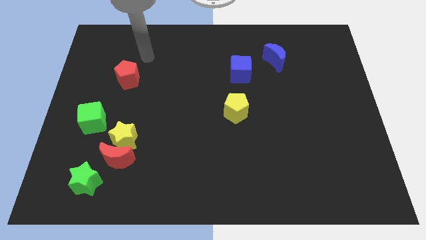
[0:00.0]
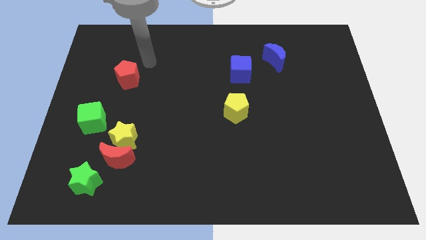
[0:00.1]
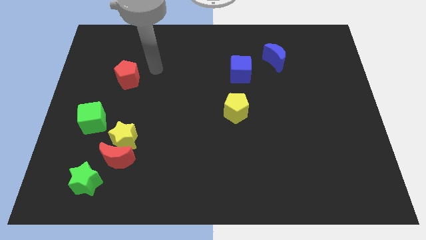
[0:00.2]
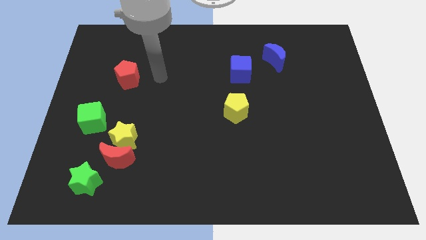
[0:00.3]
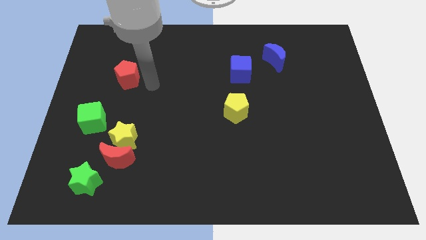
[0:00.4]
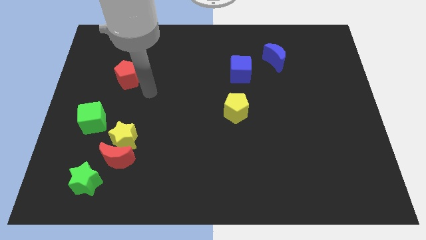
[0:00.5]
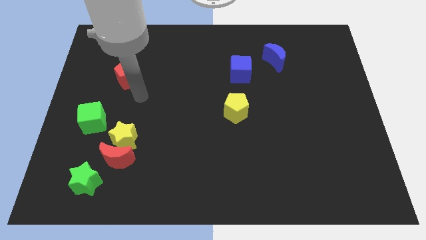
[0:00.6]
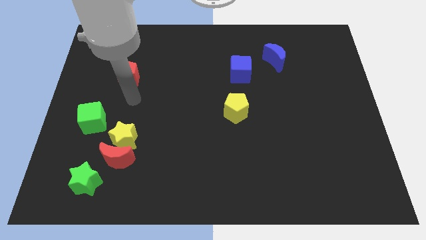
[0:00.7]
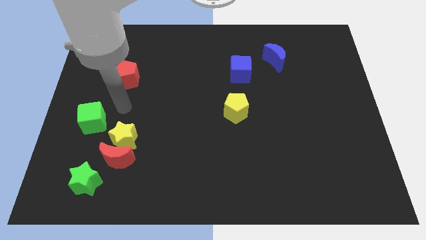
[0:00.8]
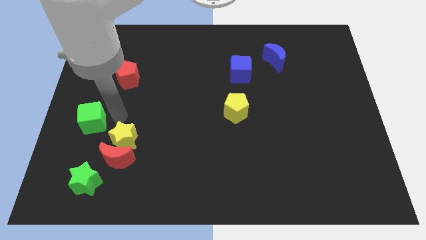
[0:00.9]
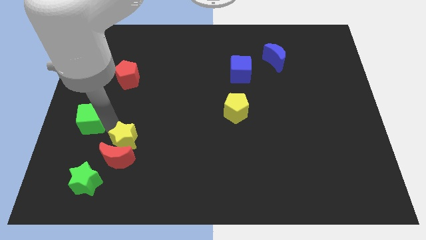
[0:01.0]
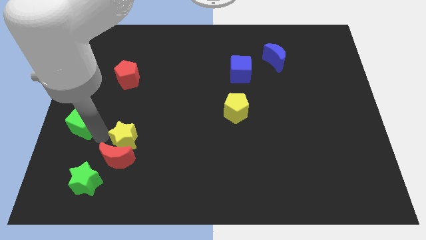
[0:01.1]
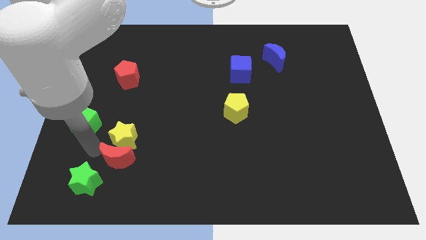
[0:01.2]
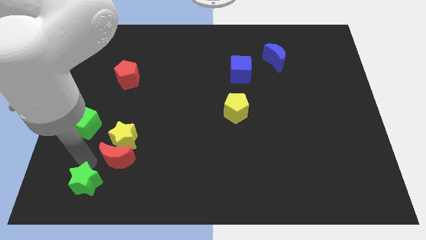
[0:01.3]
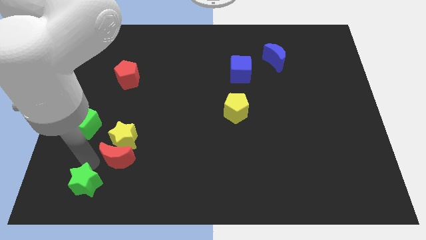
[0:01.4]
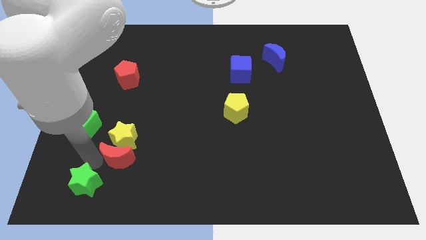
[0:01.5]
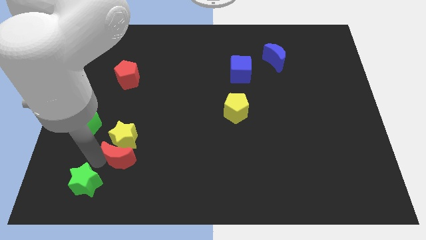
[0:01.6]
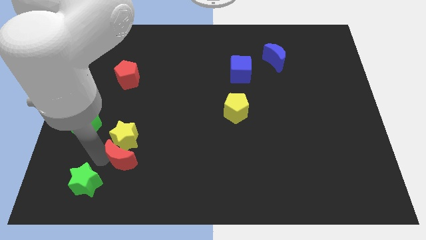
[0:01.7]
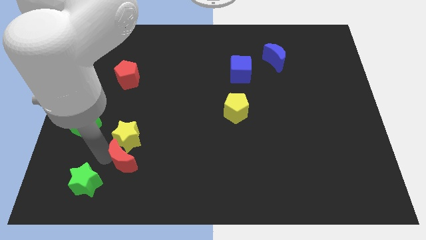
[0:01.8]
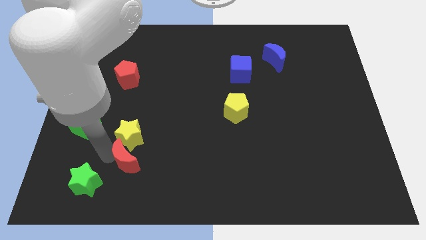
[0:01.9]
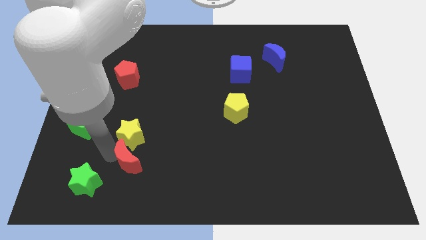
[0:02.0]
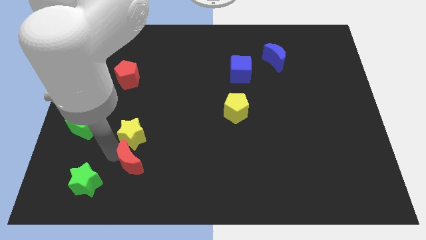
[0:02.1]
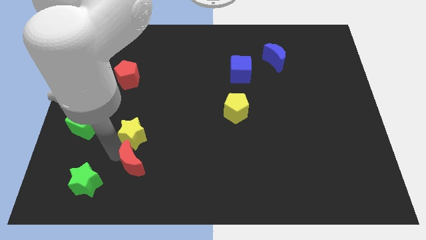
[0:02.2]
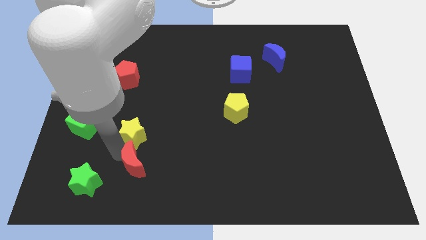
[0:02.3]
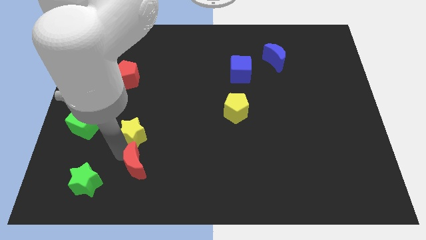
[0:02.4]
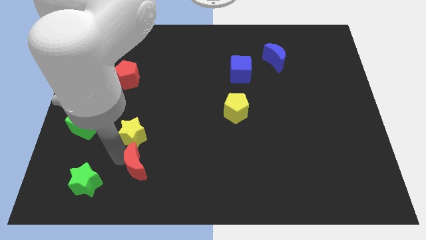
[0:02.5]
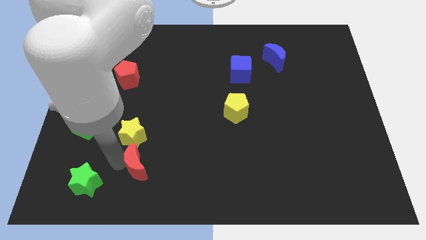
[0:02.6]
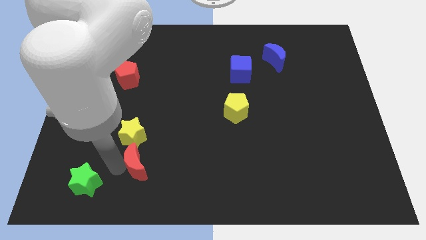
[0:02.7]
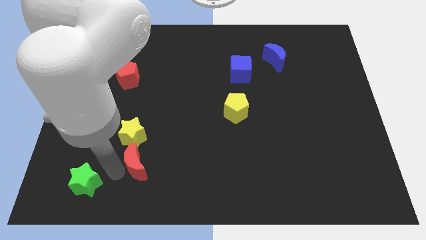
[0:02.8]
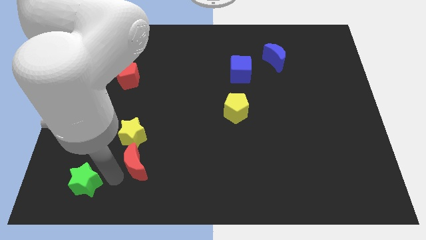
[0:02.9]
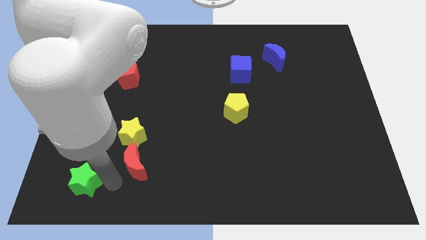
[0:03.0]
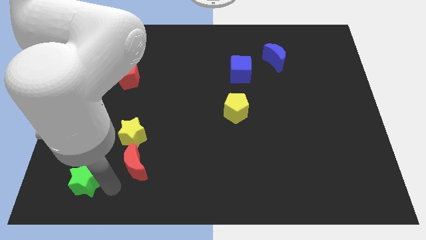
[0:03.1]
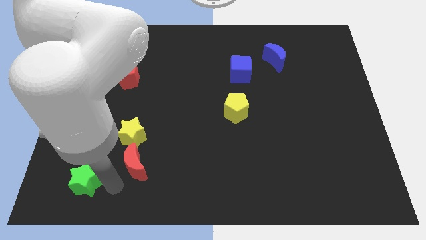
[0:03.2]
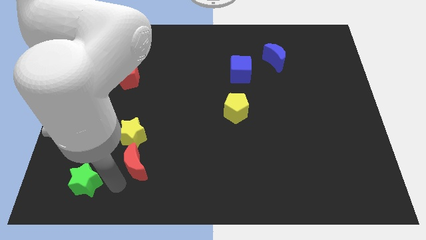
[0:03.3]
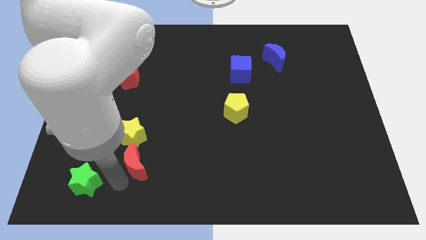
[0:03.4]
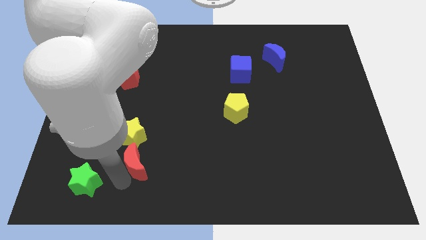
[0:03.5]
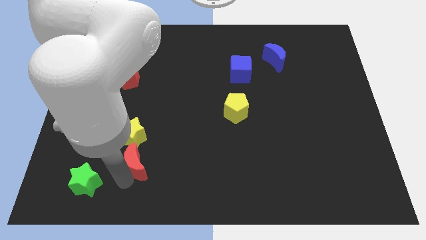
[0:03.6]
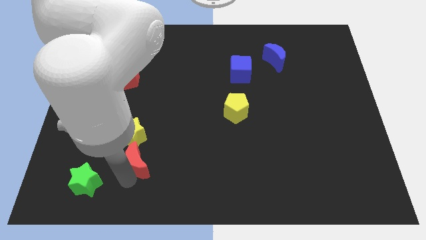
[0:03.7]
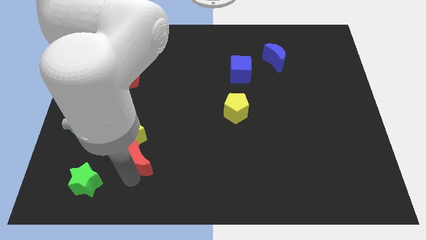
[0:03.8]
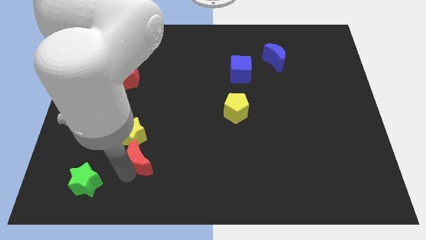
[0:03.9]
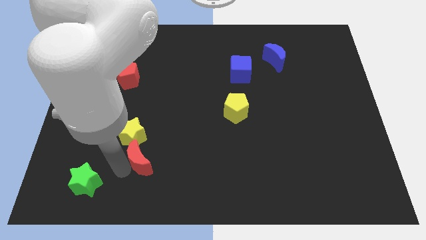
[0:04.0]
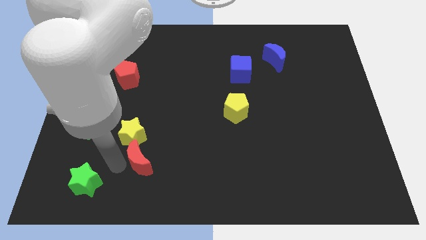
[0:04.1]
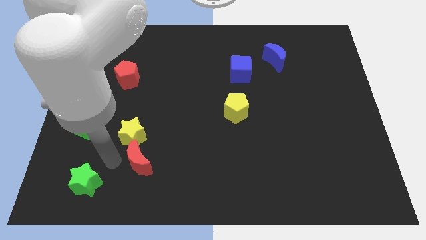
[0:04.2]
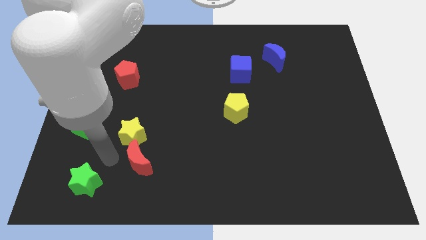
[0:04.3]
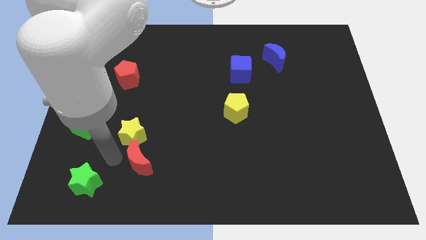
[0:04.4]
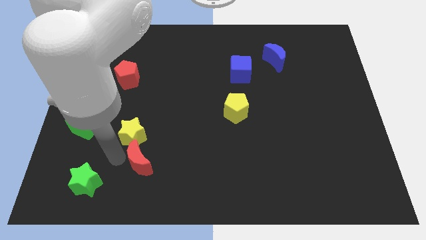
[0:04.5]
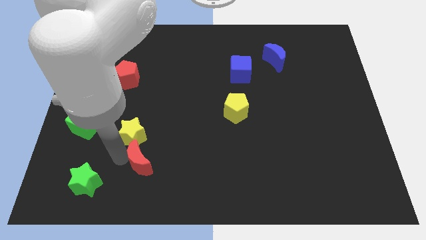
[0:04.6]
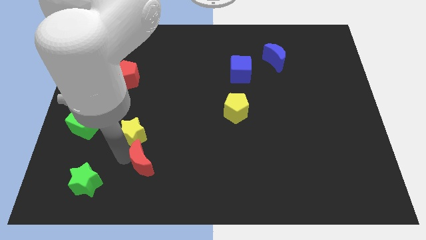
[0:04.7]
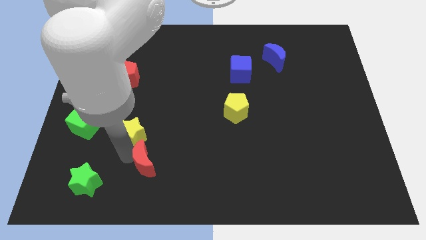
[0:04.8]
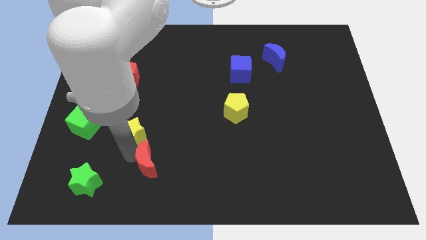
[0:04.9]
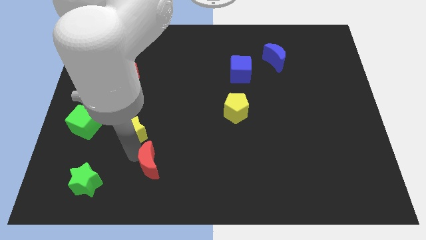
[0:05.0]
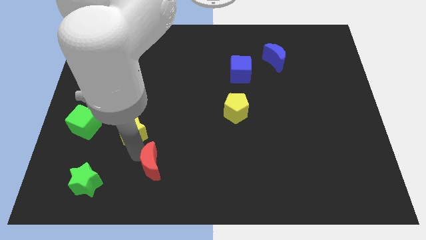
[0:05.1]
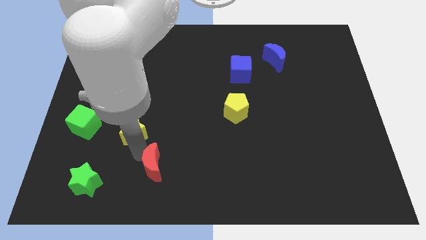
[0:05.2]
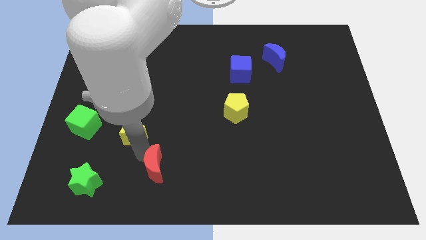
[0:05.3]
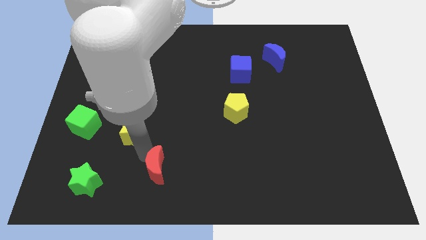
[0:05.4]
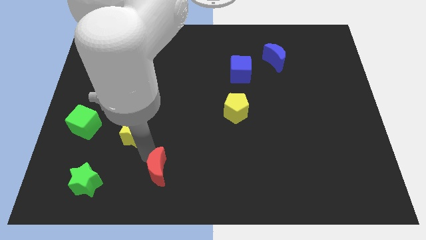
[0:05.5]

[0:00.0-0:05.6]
move the red moon away from the yellow star and green star

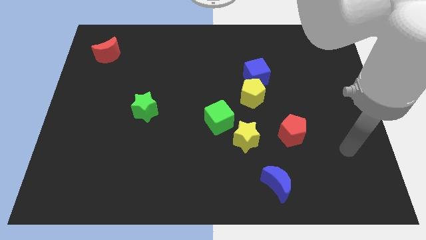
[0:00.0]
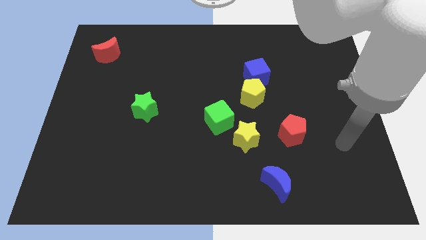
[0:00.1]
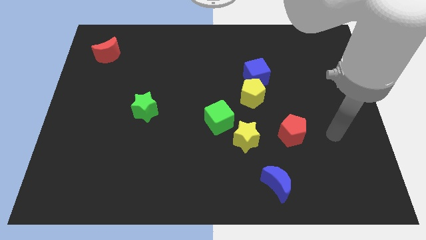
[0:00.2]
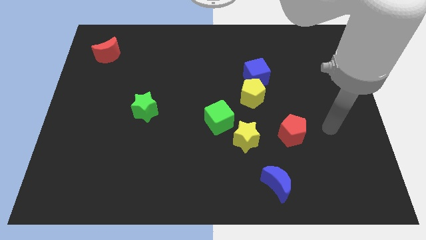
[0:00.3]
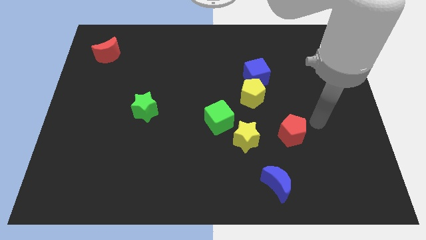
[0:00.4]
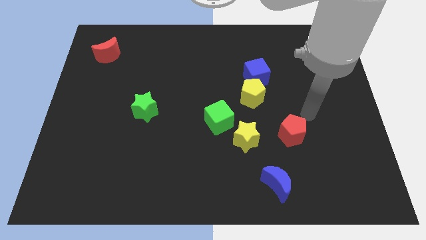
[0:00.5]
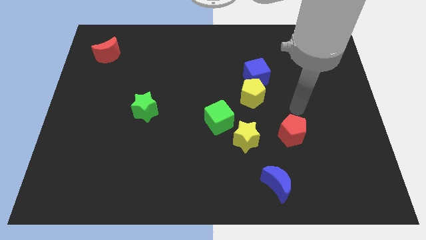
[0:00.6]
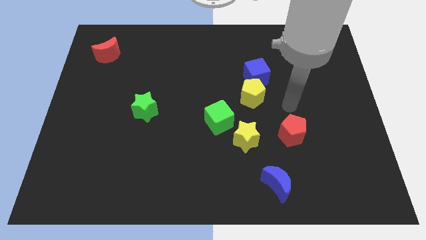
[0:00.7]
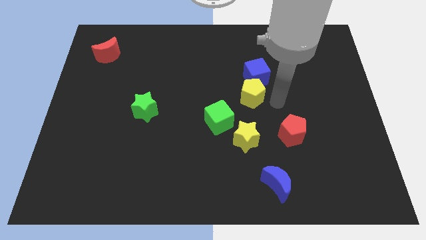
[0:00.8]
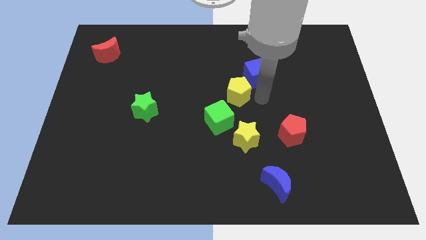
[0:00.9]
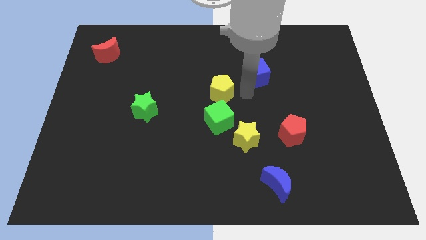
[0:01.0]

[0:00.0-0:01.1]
move the blue cube away from the yellow pentagon

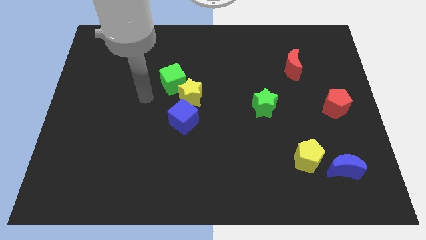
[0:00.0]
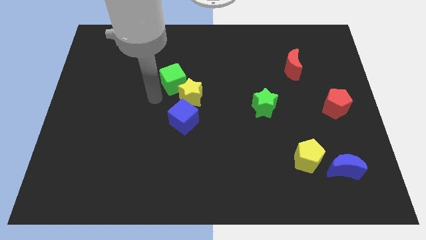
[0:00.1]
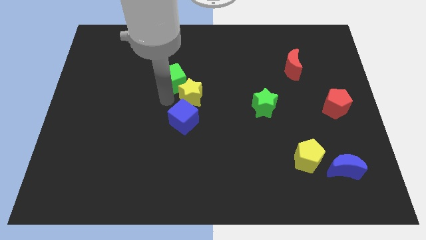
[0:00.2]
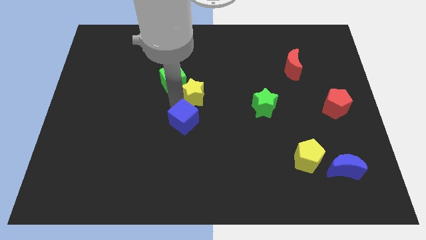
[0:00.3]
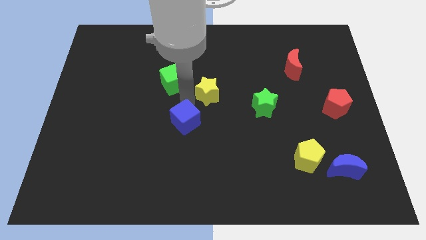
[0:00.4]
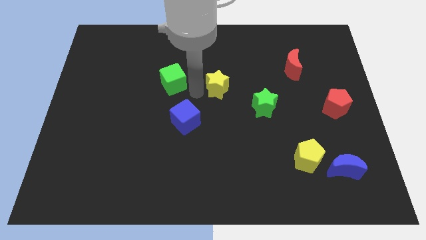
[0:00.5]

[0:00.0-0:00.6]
separate the green cube from the yellow star

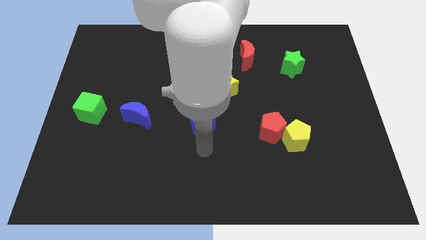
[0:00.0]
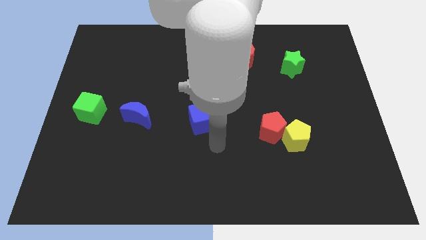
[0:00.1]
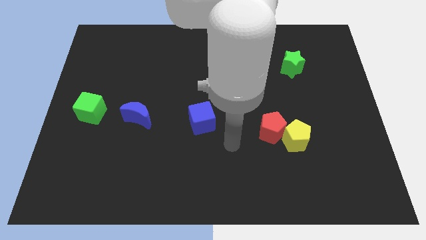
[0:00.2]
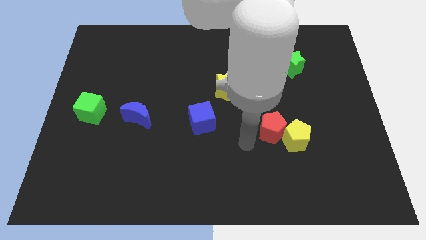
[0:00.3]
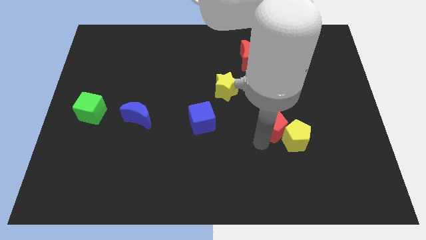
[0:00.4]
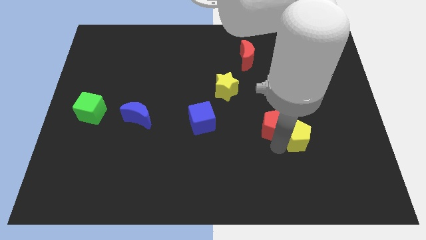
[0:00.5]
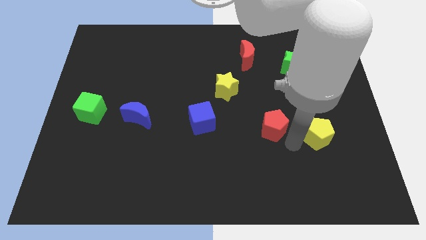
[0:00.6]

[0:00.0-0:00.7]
move the red pentagon away from the yellow pentagon

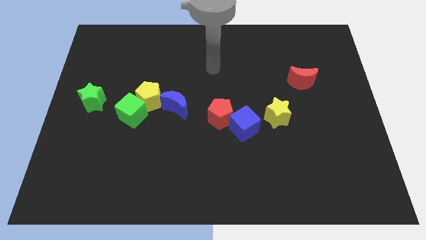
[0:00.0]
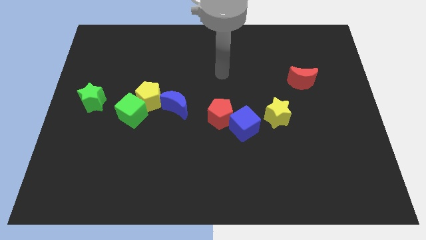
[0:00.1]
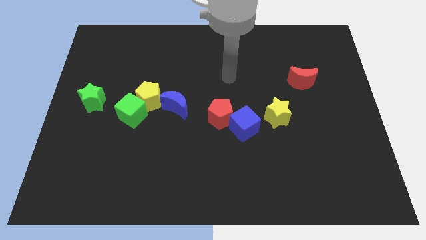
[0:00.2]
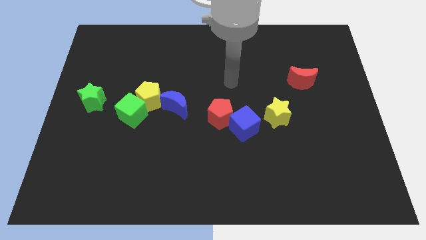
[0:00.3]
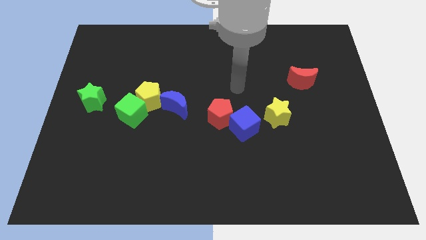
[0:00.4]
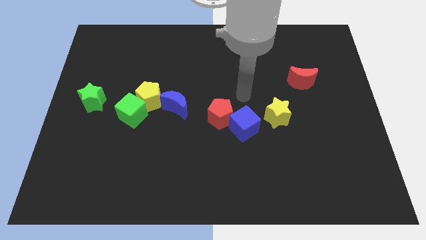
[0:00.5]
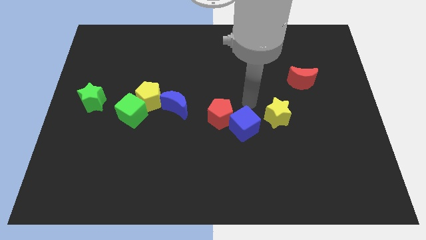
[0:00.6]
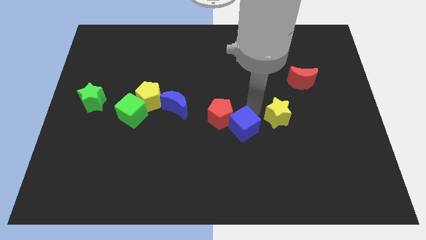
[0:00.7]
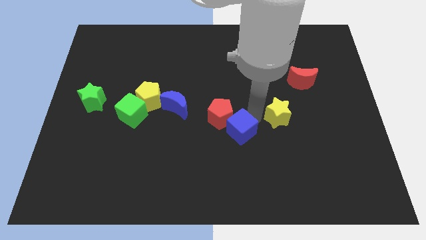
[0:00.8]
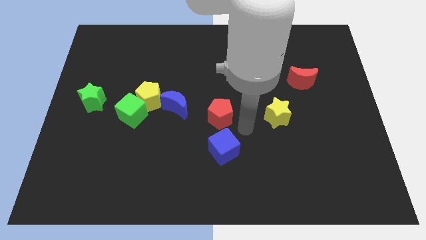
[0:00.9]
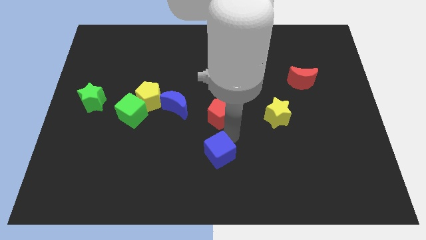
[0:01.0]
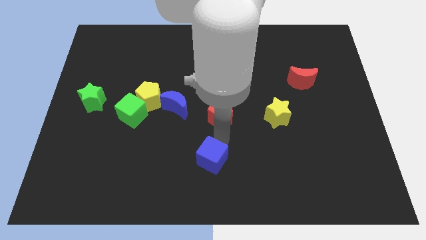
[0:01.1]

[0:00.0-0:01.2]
move the red pentagon away from the blue cube

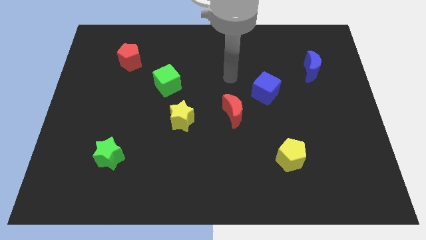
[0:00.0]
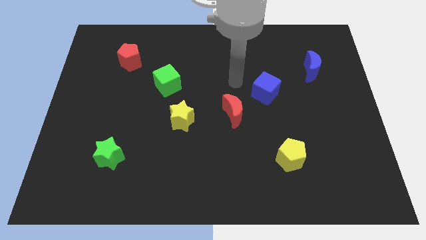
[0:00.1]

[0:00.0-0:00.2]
move the red moon away from the blue cube
